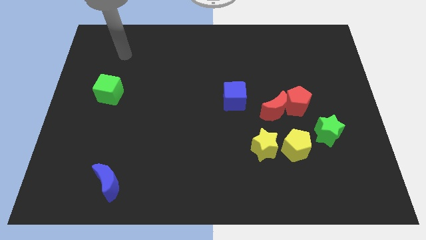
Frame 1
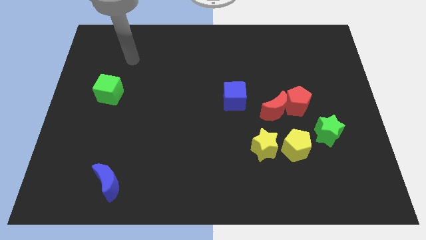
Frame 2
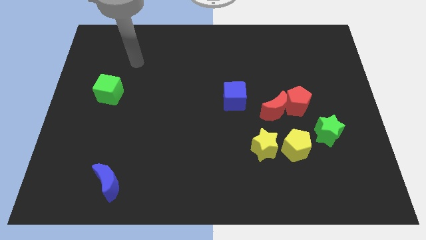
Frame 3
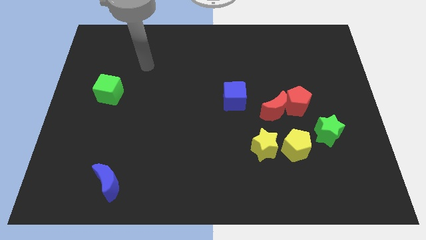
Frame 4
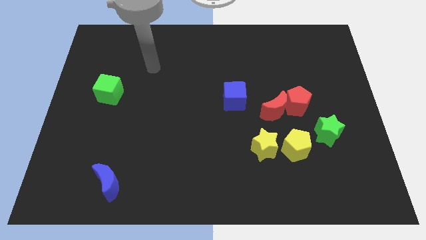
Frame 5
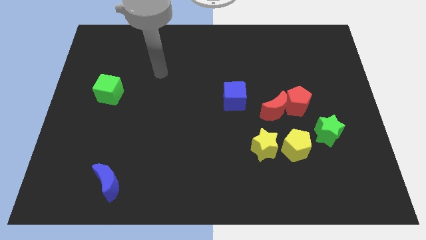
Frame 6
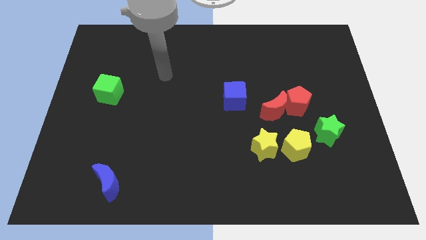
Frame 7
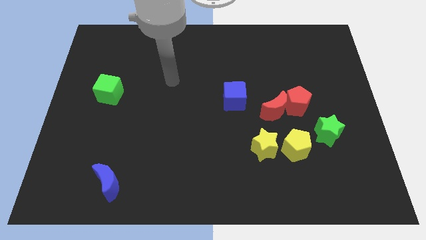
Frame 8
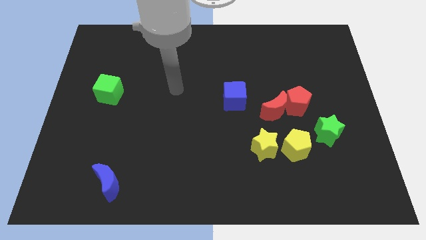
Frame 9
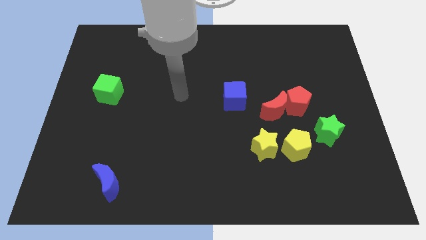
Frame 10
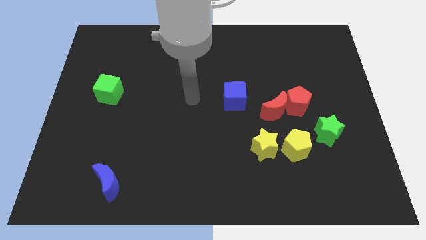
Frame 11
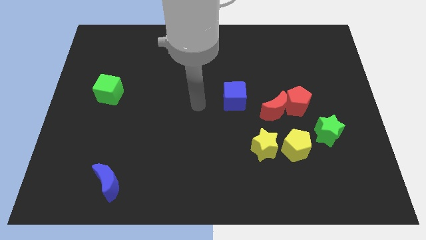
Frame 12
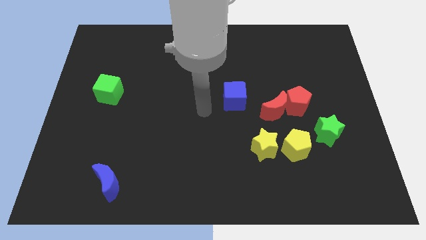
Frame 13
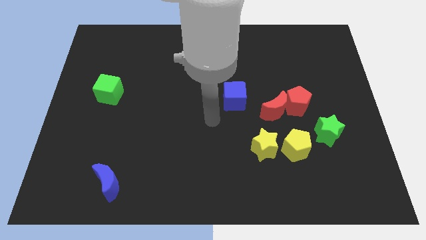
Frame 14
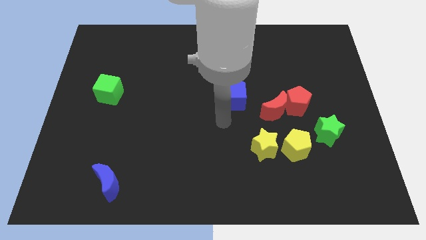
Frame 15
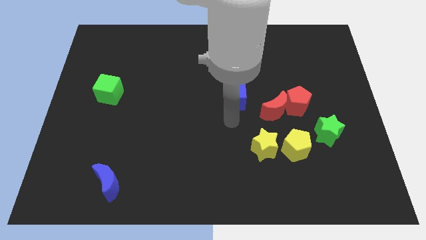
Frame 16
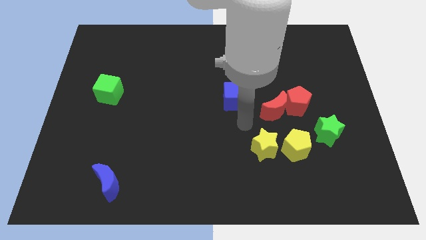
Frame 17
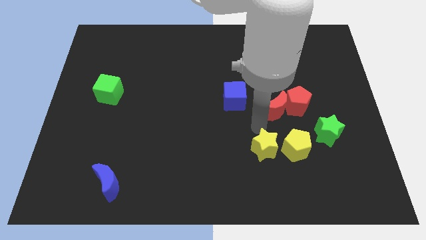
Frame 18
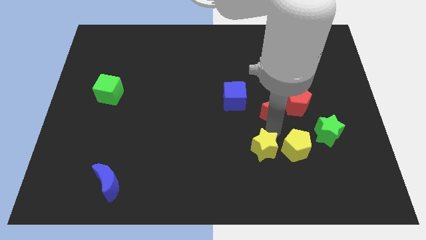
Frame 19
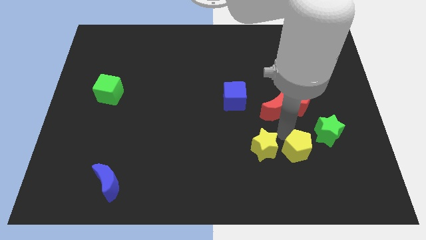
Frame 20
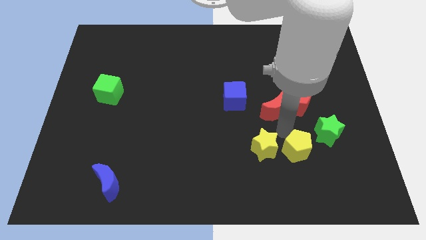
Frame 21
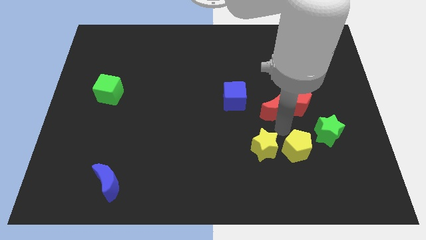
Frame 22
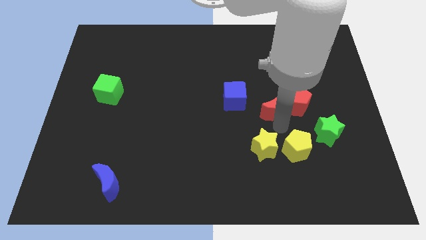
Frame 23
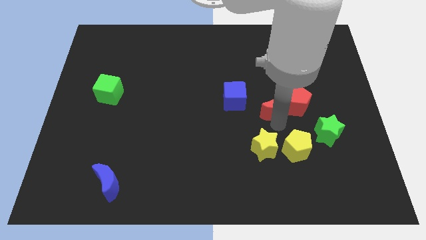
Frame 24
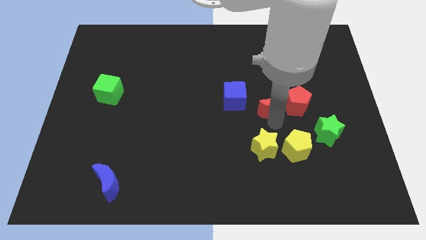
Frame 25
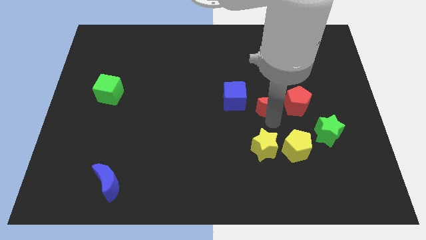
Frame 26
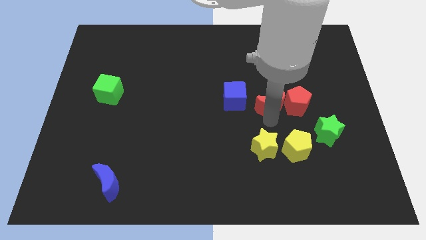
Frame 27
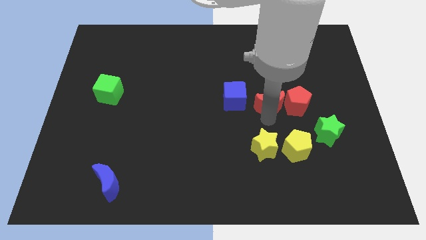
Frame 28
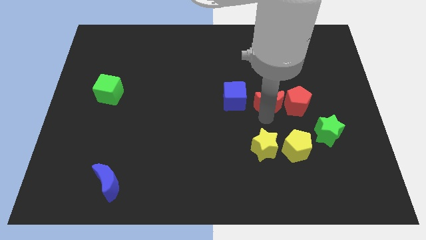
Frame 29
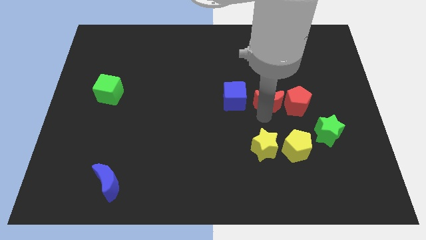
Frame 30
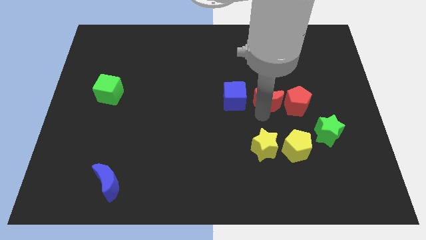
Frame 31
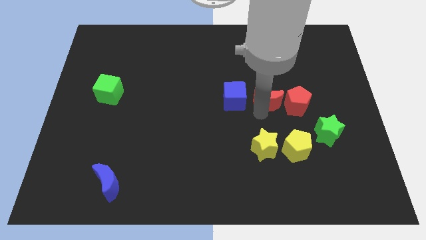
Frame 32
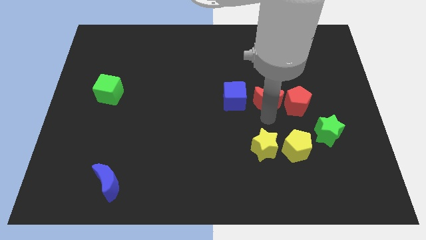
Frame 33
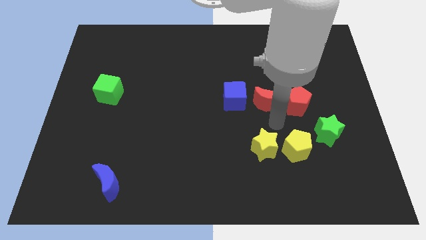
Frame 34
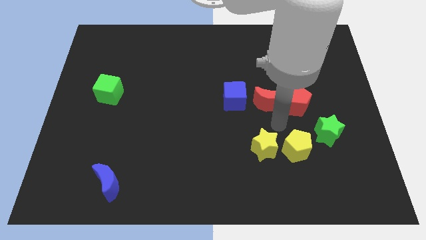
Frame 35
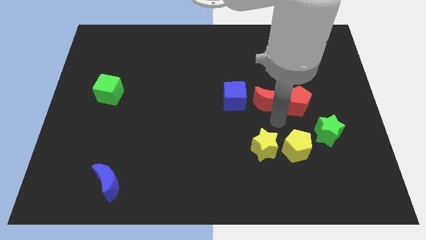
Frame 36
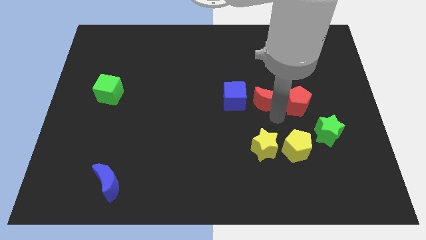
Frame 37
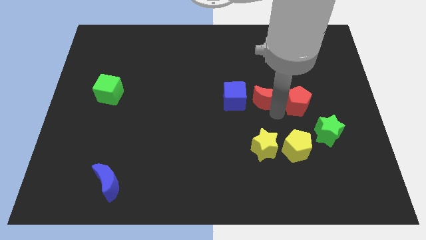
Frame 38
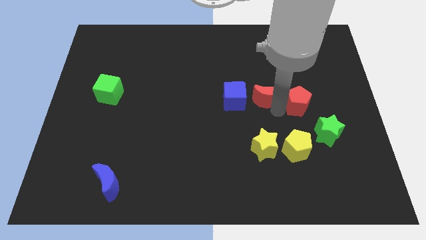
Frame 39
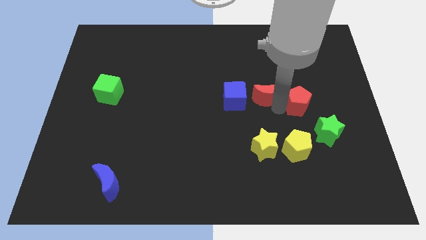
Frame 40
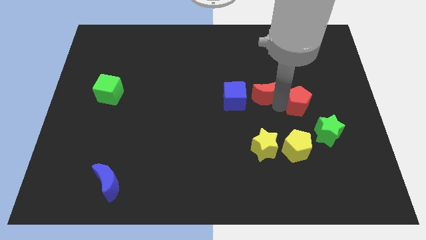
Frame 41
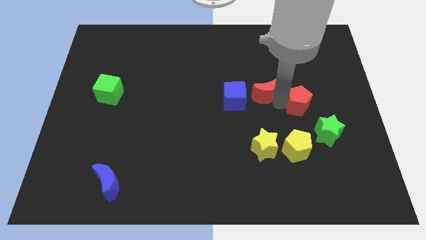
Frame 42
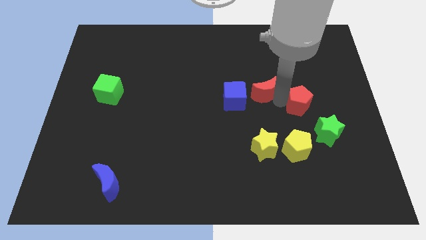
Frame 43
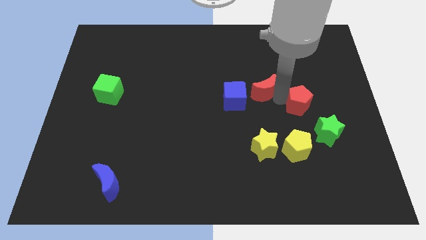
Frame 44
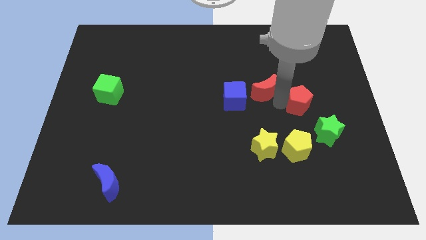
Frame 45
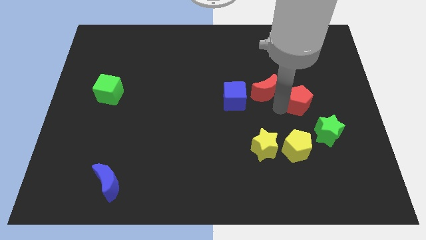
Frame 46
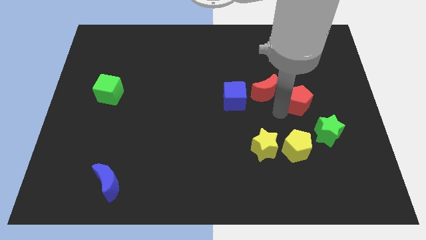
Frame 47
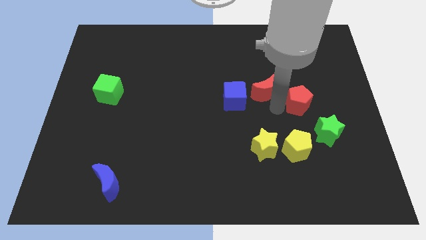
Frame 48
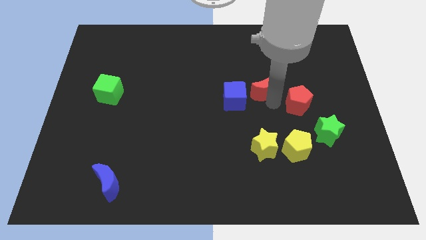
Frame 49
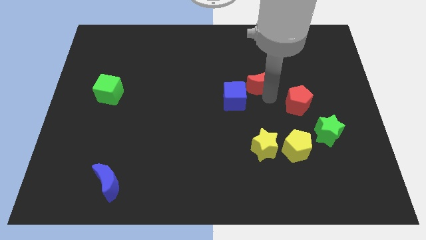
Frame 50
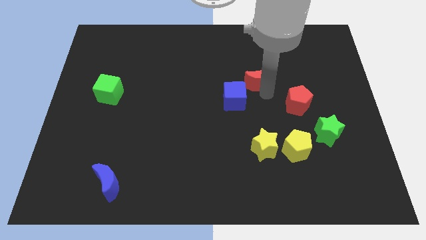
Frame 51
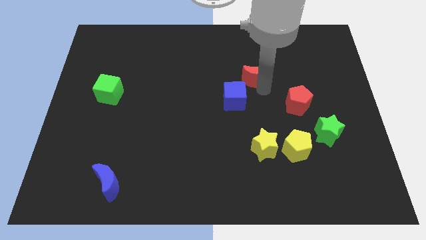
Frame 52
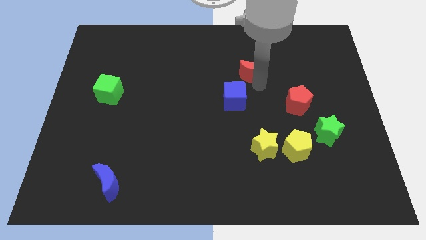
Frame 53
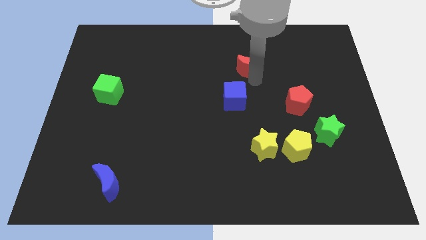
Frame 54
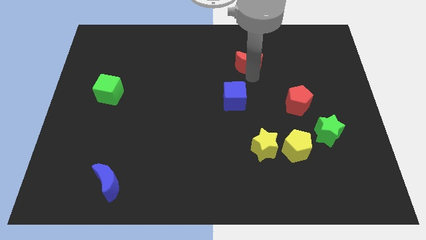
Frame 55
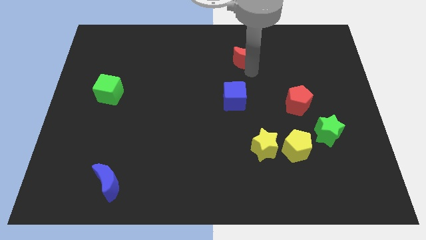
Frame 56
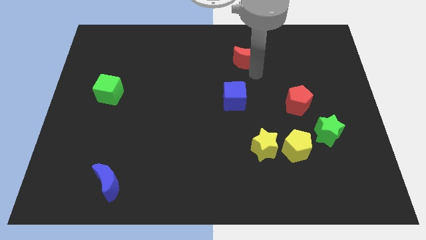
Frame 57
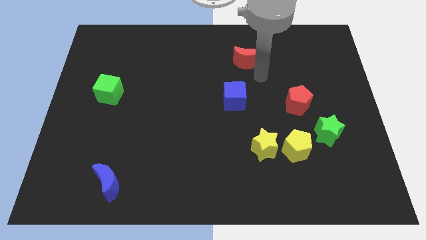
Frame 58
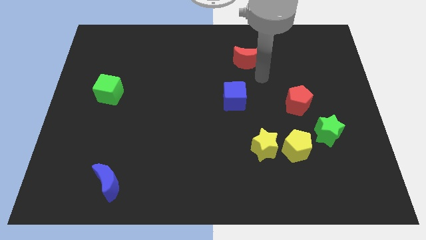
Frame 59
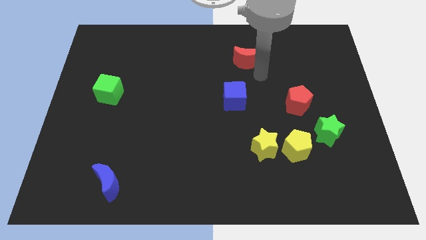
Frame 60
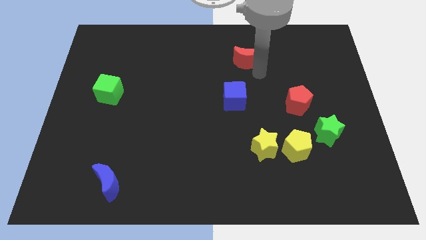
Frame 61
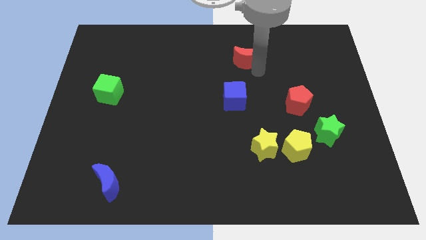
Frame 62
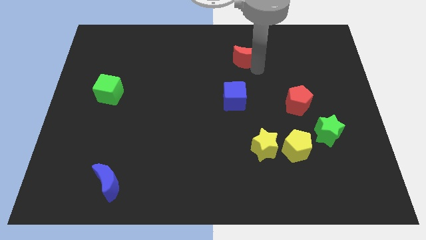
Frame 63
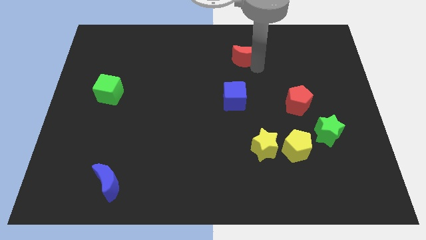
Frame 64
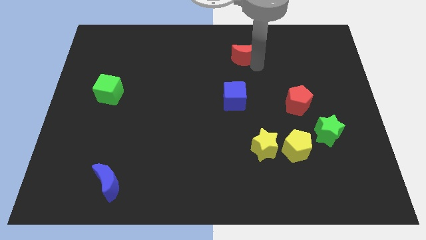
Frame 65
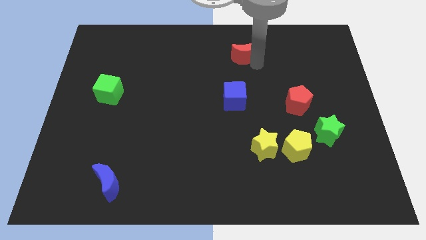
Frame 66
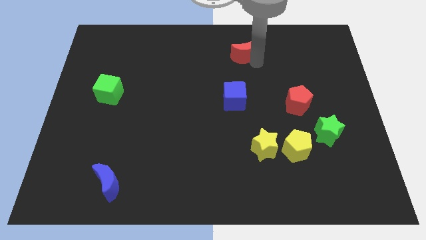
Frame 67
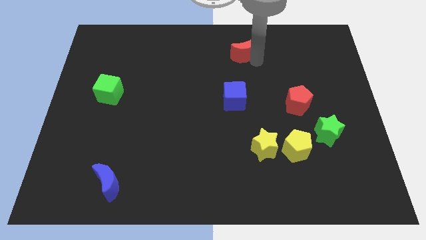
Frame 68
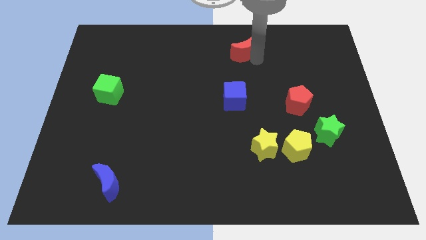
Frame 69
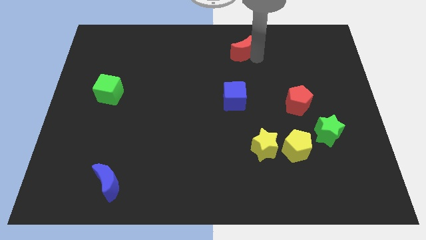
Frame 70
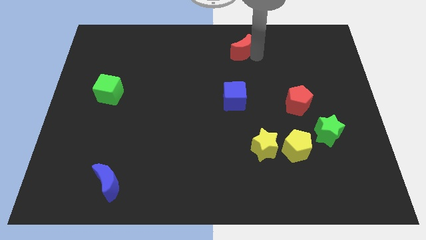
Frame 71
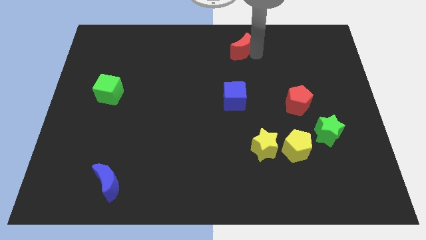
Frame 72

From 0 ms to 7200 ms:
slide the red moon to the towards your base
